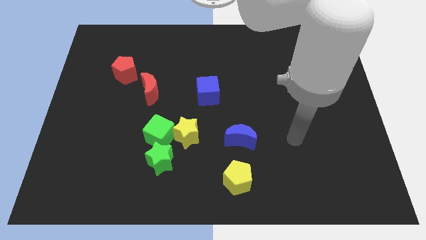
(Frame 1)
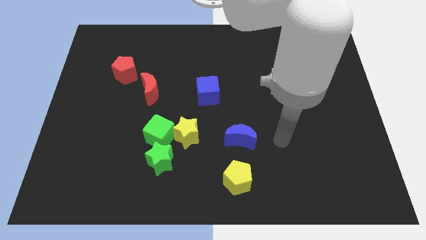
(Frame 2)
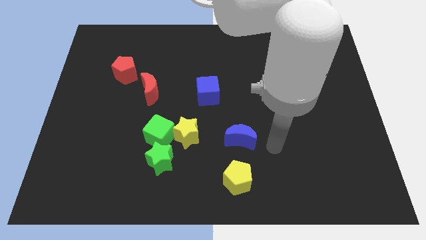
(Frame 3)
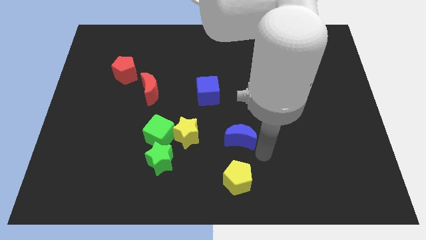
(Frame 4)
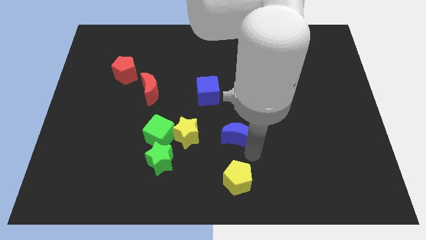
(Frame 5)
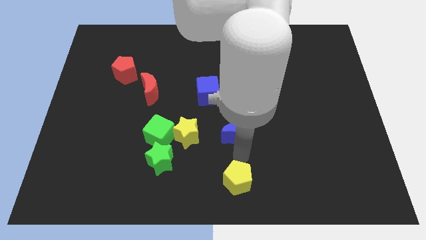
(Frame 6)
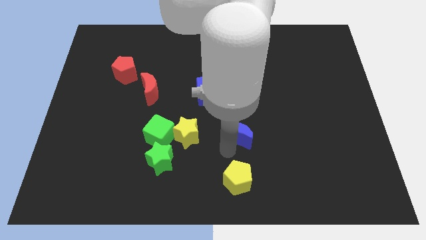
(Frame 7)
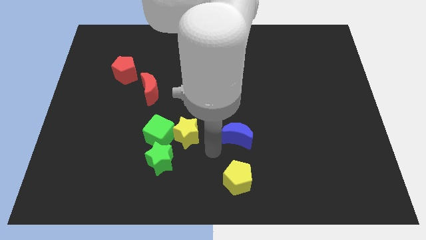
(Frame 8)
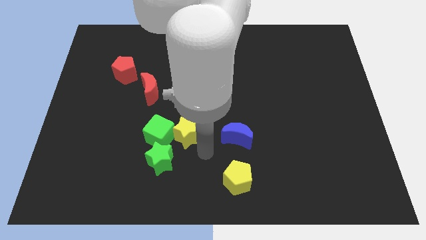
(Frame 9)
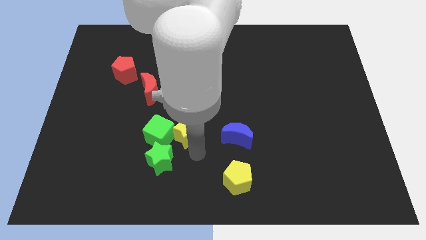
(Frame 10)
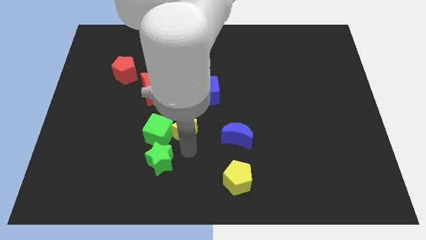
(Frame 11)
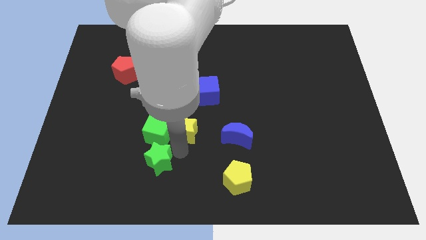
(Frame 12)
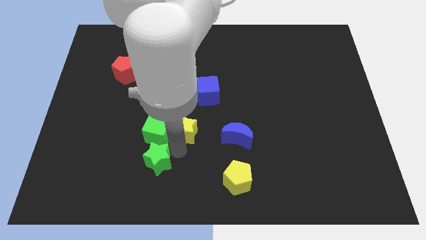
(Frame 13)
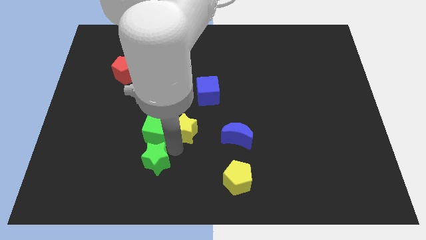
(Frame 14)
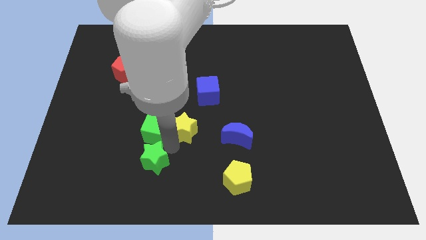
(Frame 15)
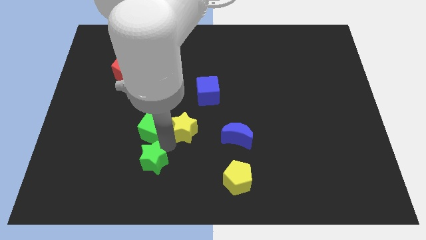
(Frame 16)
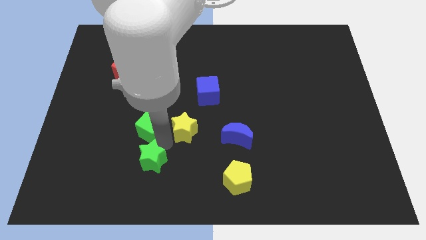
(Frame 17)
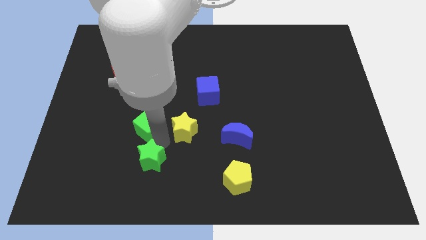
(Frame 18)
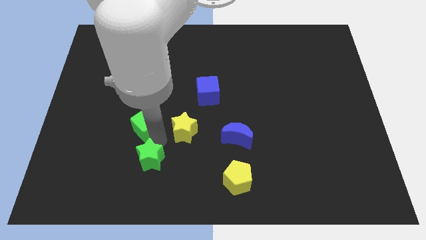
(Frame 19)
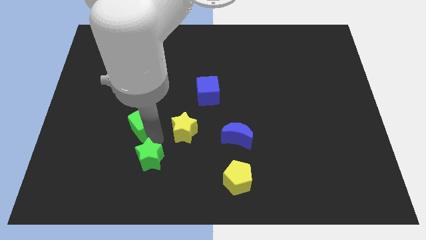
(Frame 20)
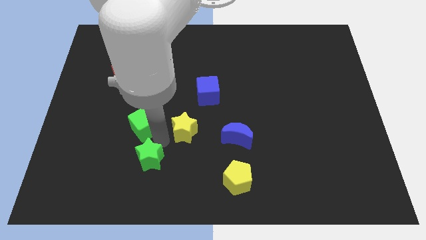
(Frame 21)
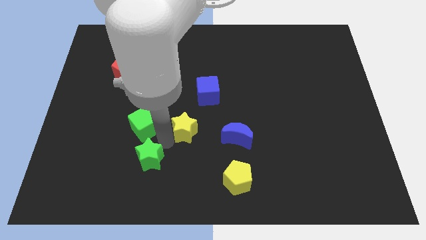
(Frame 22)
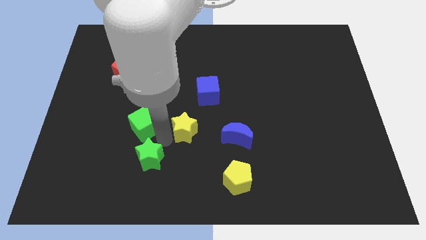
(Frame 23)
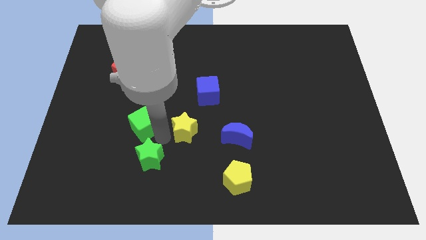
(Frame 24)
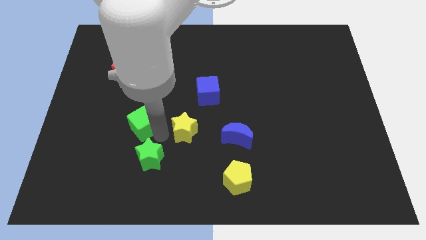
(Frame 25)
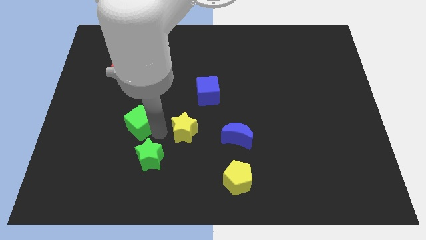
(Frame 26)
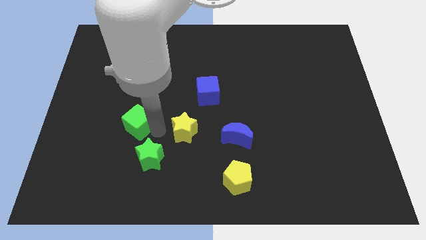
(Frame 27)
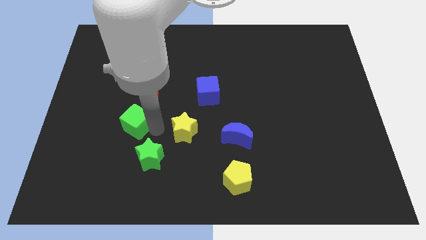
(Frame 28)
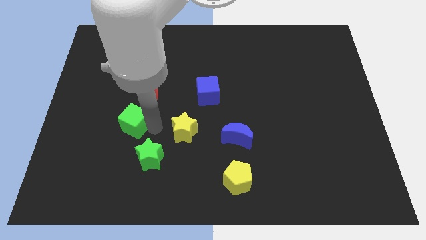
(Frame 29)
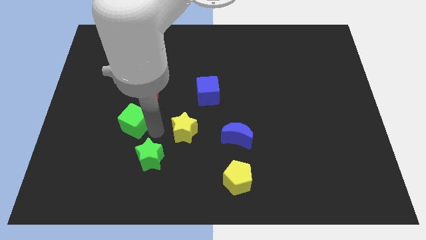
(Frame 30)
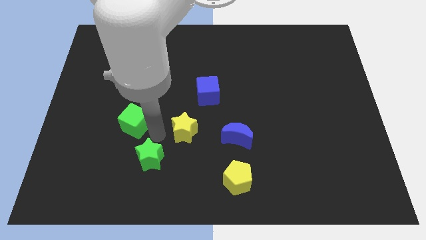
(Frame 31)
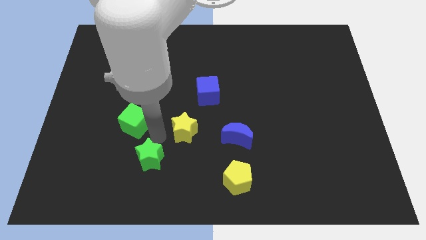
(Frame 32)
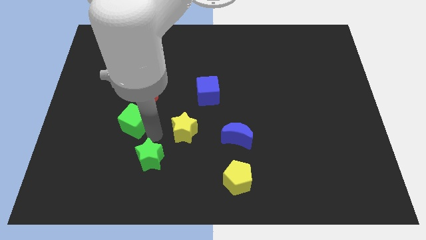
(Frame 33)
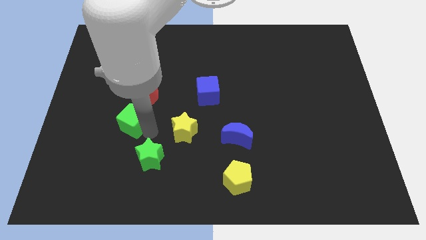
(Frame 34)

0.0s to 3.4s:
separate the green cube from the yellow star and green star

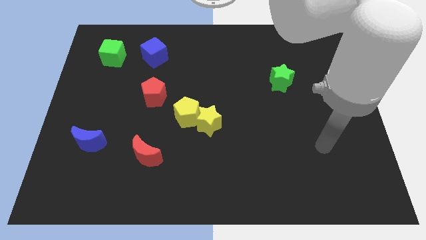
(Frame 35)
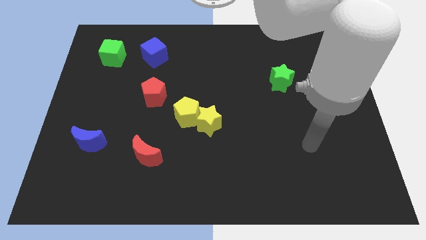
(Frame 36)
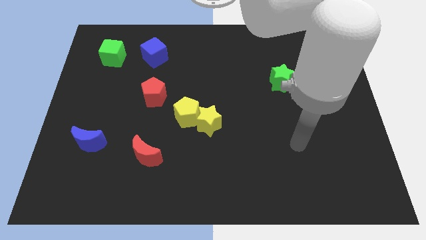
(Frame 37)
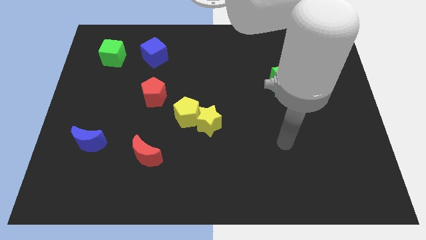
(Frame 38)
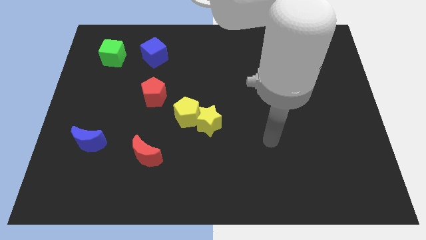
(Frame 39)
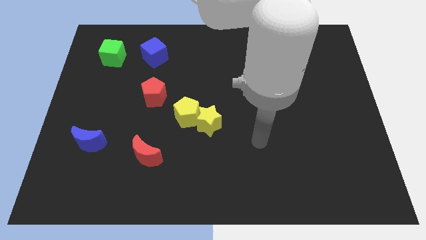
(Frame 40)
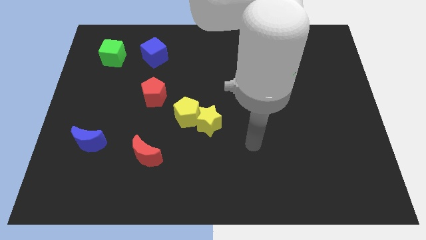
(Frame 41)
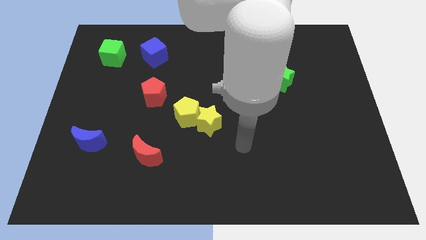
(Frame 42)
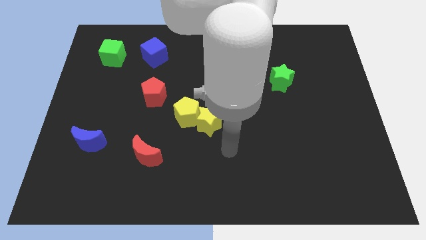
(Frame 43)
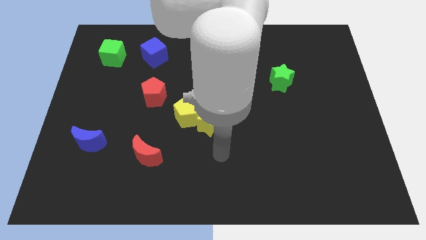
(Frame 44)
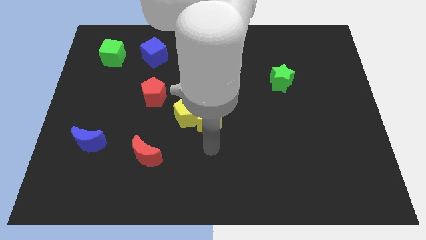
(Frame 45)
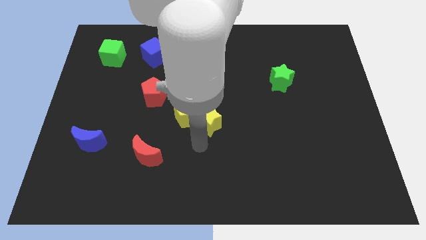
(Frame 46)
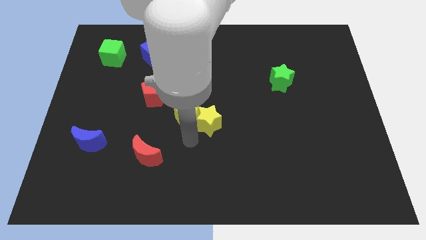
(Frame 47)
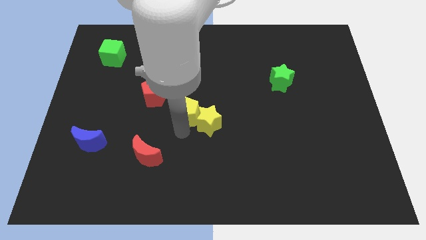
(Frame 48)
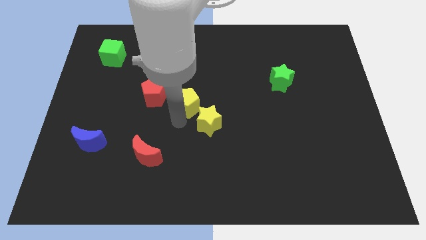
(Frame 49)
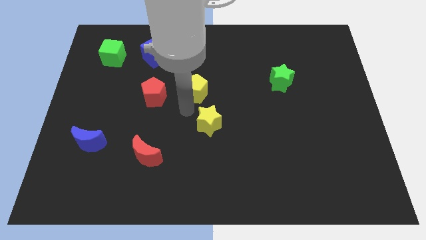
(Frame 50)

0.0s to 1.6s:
move the yellow star away from the yellow pentagon

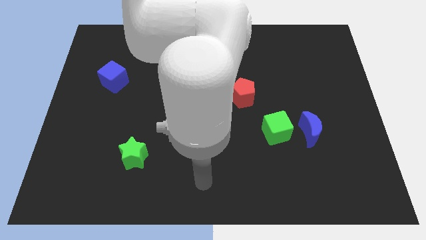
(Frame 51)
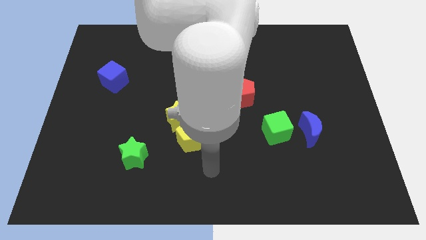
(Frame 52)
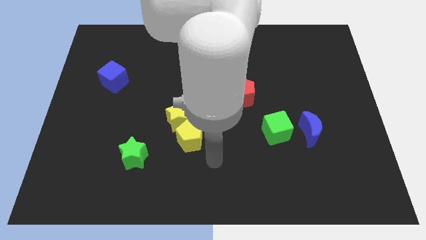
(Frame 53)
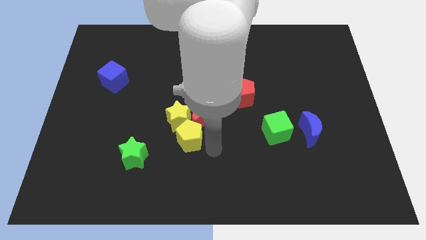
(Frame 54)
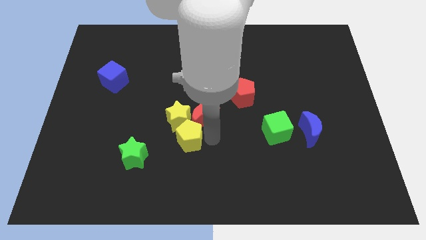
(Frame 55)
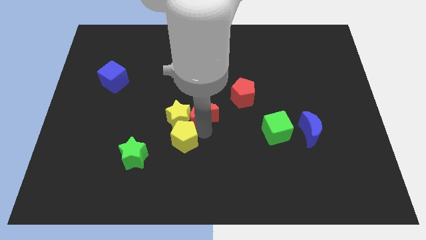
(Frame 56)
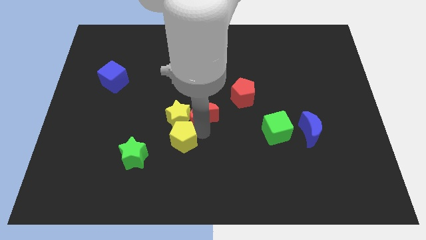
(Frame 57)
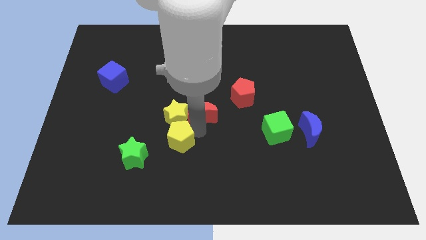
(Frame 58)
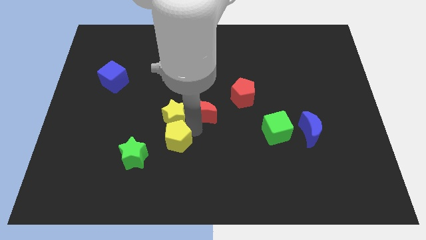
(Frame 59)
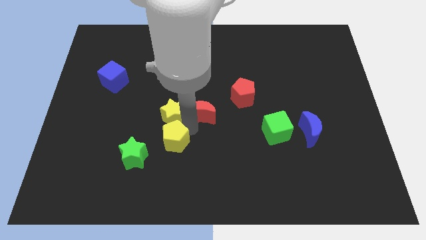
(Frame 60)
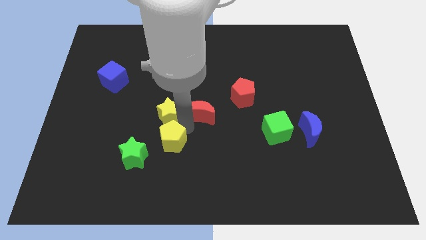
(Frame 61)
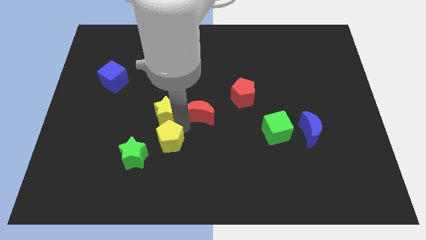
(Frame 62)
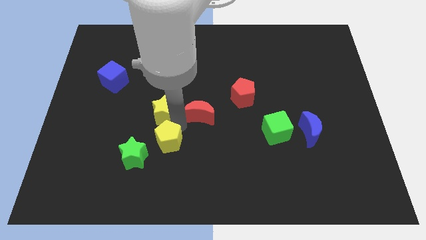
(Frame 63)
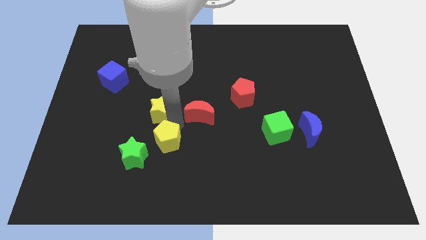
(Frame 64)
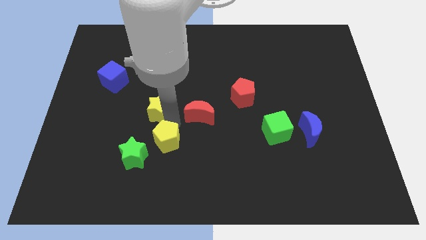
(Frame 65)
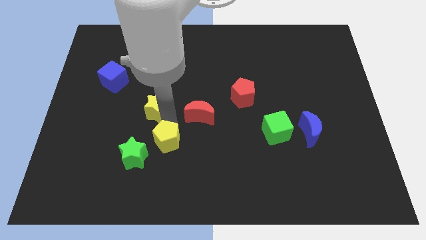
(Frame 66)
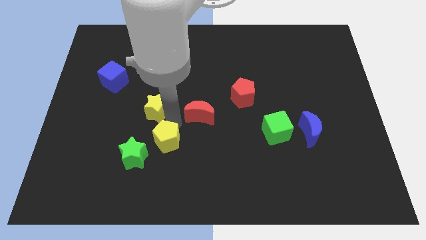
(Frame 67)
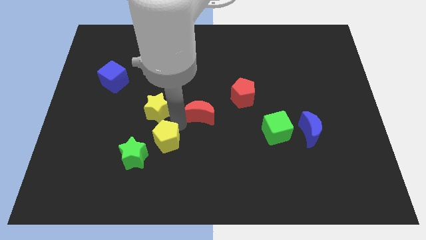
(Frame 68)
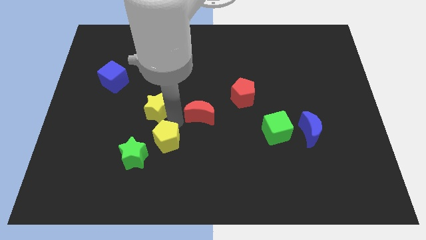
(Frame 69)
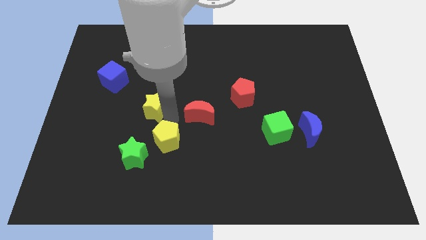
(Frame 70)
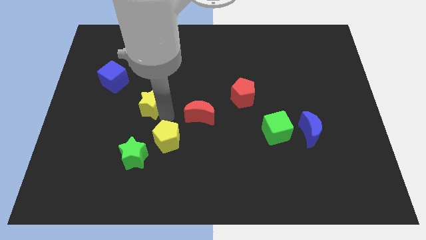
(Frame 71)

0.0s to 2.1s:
pull the yellow star apart from the red moon and yellow pentagon

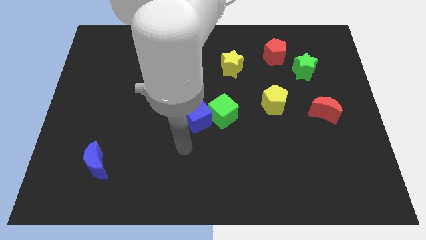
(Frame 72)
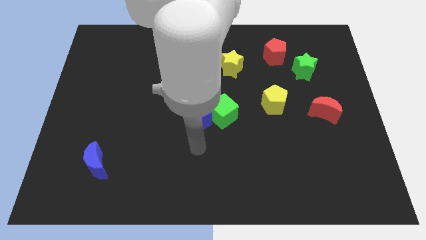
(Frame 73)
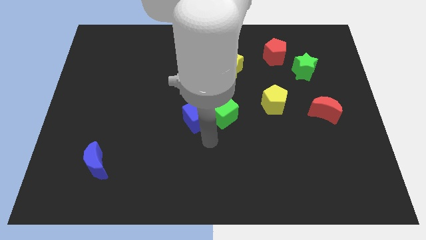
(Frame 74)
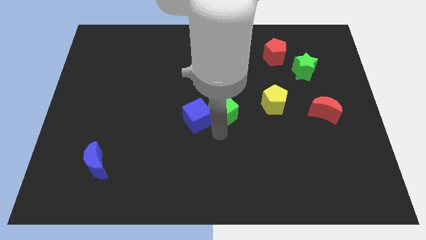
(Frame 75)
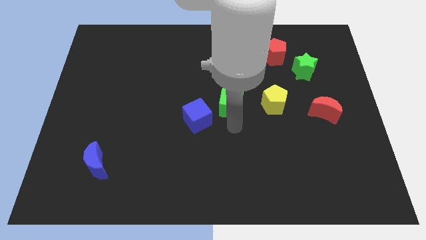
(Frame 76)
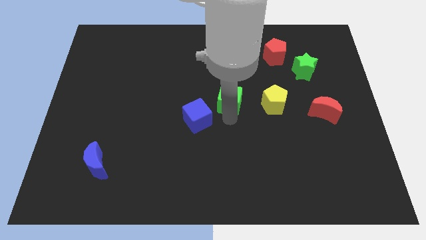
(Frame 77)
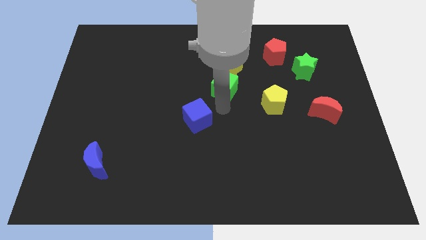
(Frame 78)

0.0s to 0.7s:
move the blue cube away from the green cube

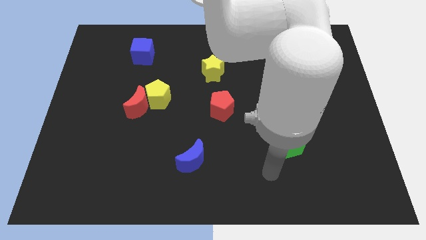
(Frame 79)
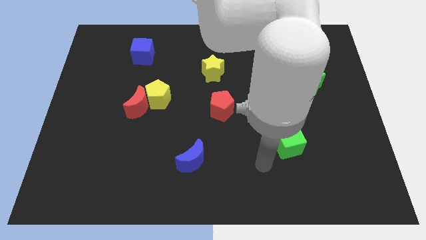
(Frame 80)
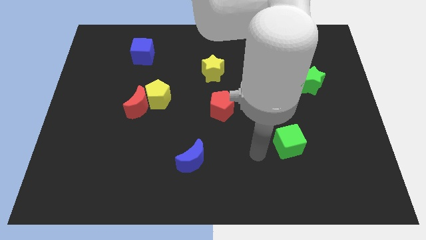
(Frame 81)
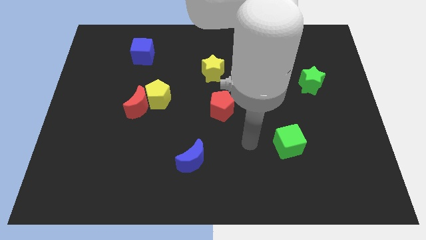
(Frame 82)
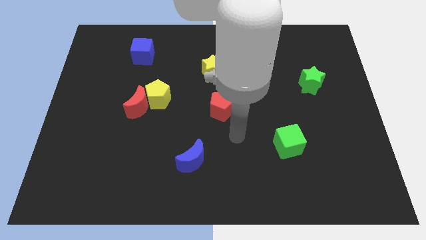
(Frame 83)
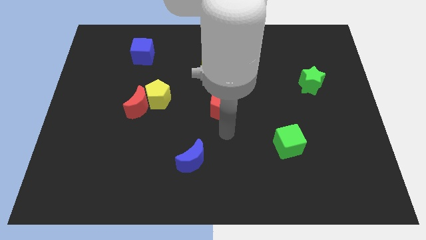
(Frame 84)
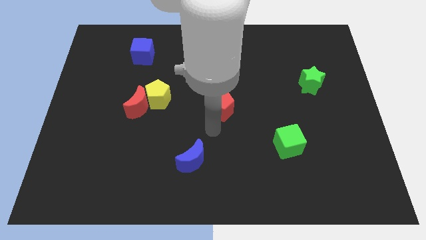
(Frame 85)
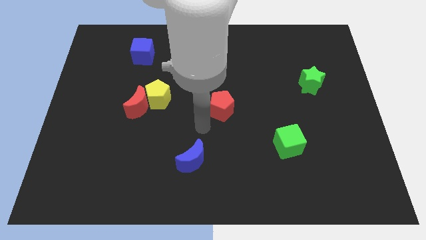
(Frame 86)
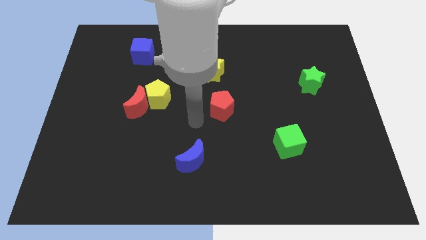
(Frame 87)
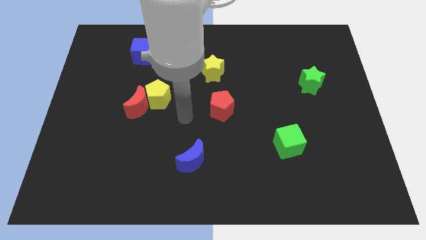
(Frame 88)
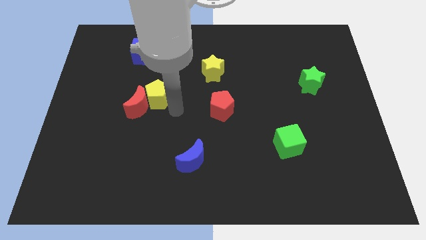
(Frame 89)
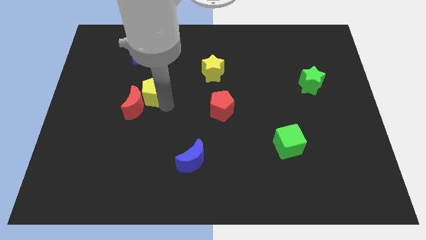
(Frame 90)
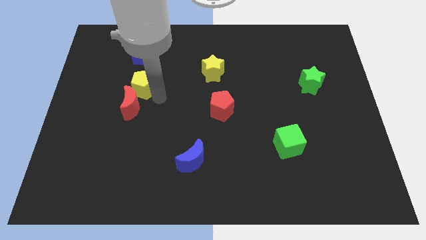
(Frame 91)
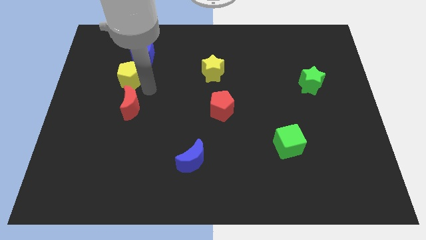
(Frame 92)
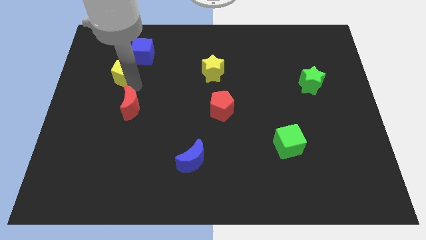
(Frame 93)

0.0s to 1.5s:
move the red moon away from the yellow pentagon

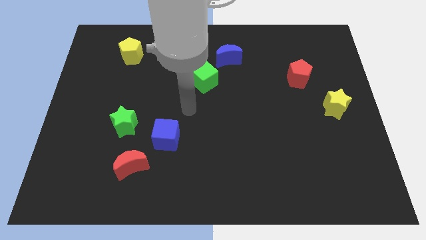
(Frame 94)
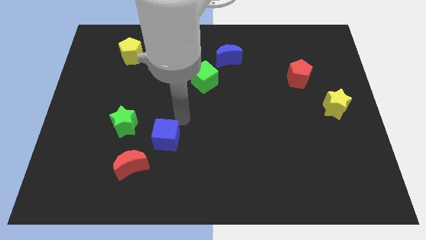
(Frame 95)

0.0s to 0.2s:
move the red moon away from the blue cube
